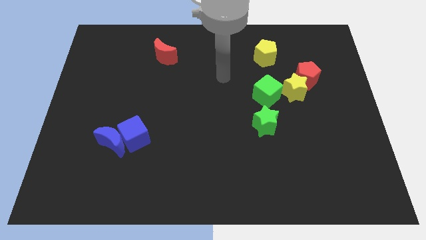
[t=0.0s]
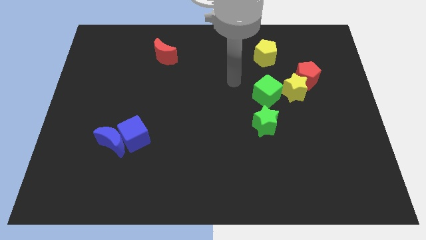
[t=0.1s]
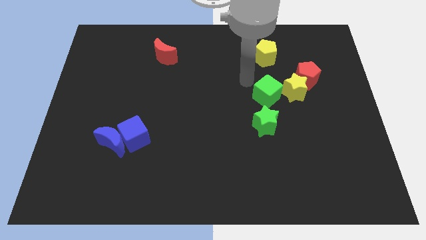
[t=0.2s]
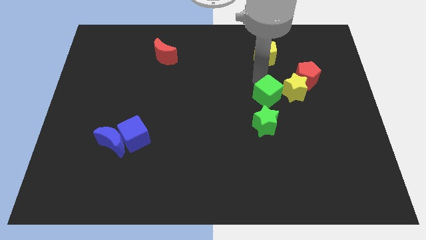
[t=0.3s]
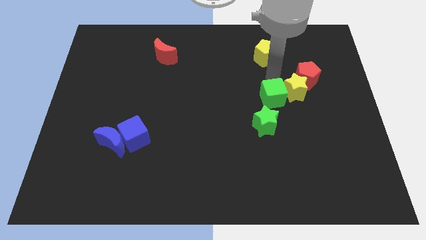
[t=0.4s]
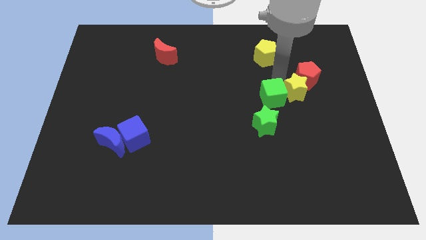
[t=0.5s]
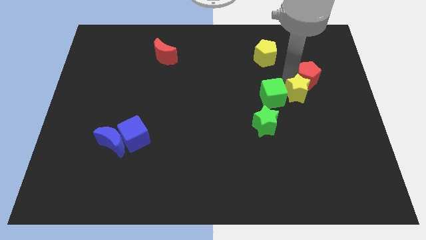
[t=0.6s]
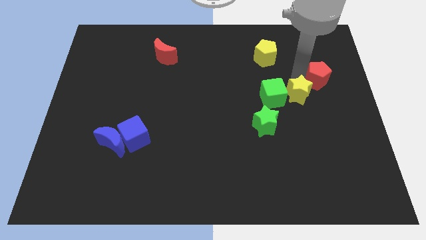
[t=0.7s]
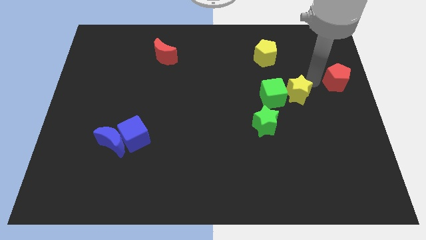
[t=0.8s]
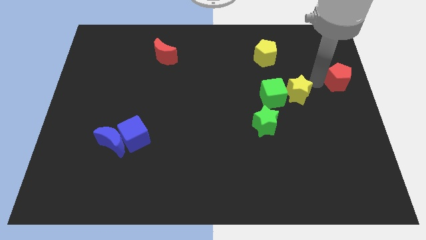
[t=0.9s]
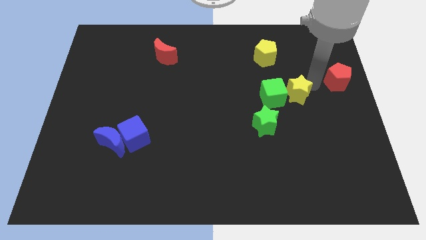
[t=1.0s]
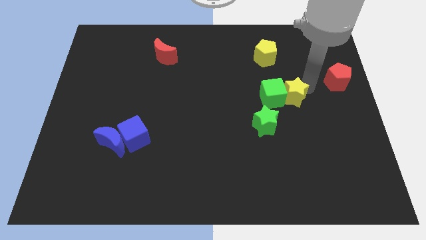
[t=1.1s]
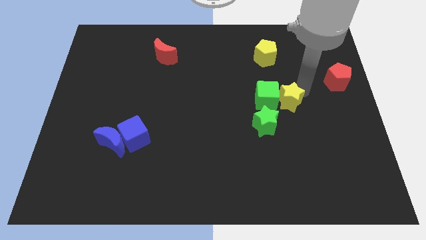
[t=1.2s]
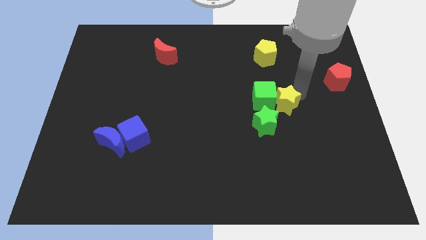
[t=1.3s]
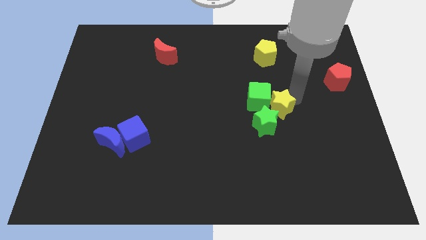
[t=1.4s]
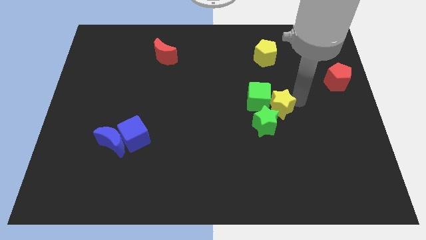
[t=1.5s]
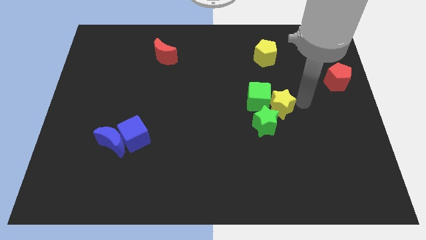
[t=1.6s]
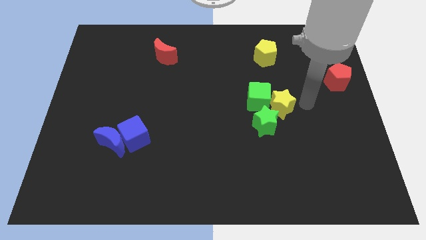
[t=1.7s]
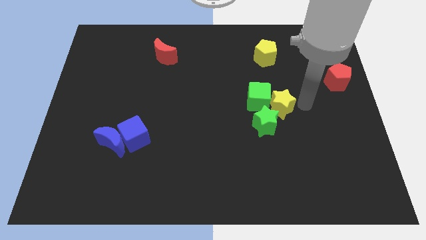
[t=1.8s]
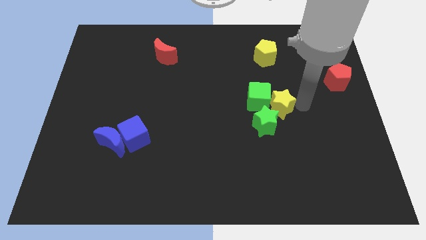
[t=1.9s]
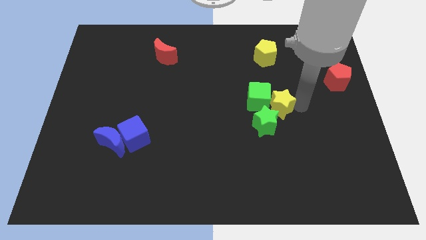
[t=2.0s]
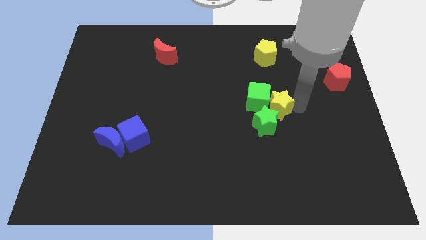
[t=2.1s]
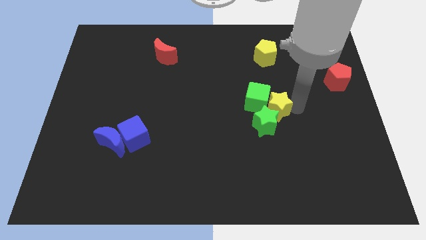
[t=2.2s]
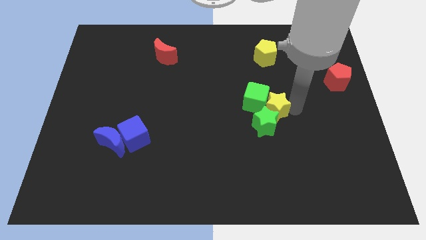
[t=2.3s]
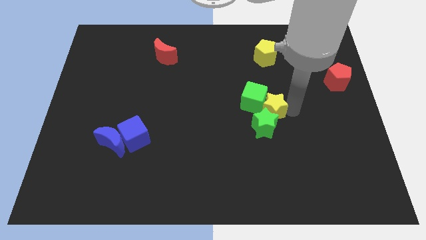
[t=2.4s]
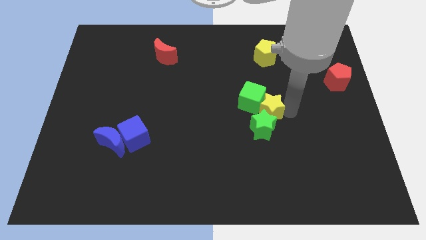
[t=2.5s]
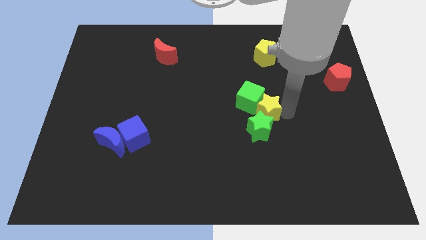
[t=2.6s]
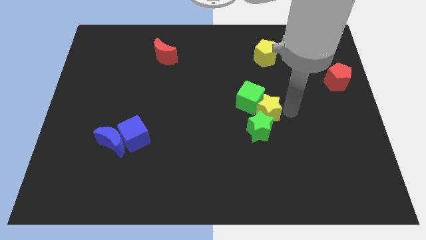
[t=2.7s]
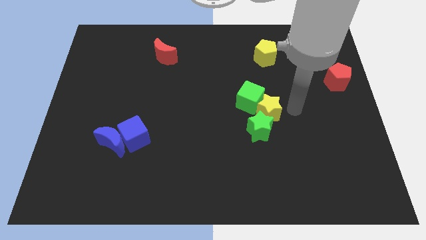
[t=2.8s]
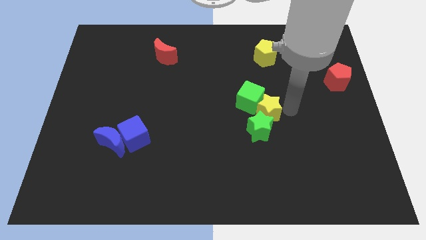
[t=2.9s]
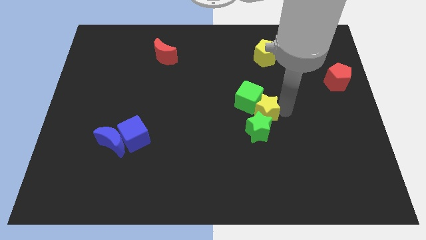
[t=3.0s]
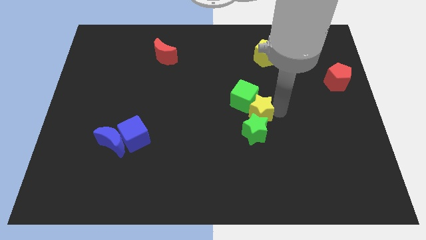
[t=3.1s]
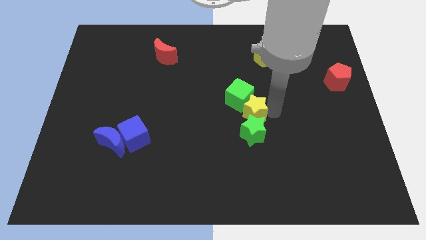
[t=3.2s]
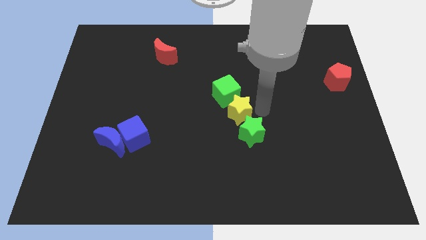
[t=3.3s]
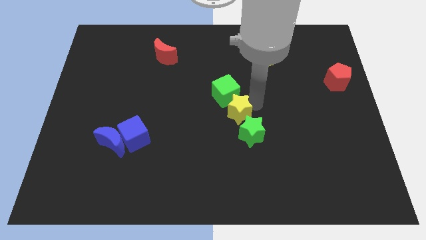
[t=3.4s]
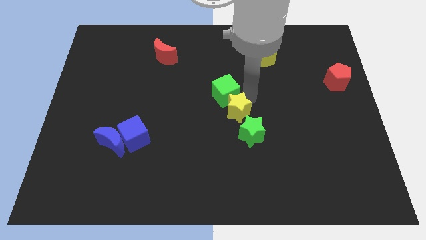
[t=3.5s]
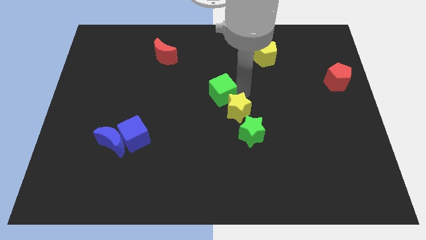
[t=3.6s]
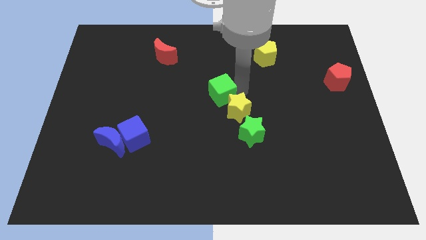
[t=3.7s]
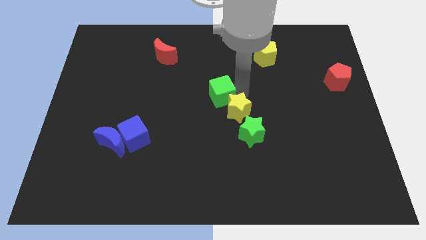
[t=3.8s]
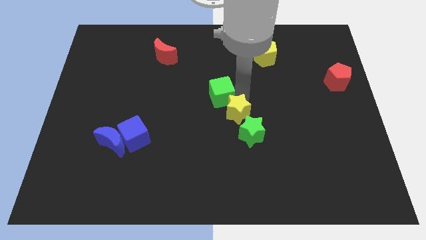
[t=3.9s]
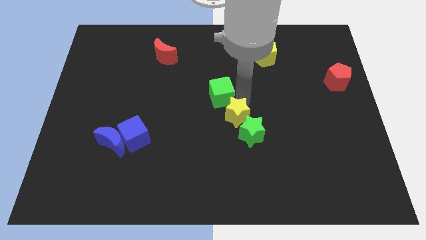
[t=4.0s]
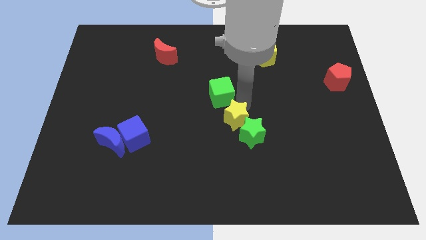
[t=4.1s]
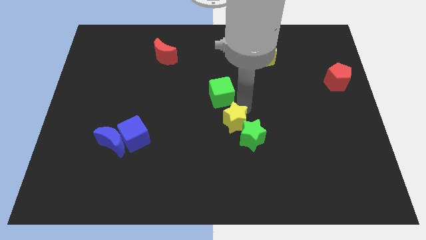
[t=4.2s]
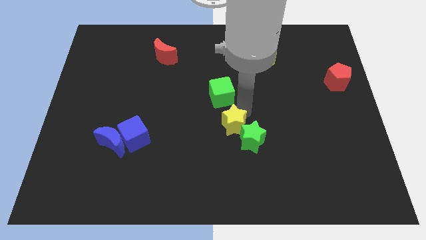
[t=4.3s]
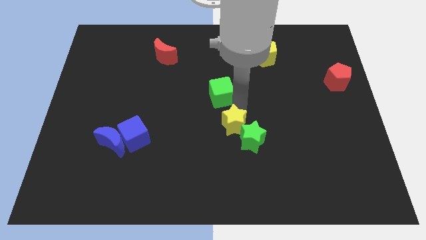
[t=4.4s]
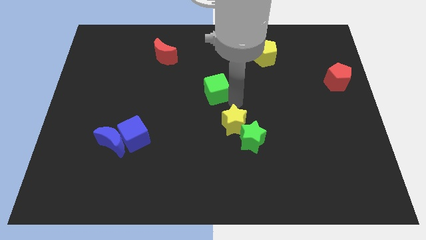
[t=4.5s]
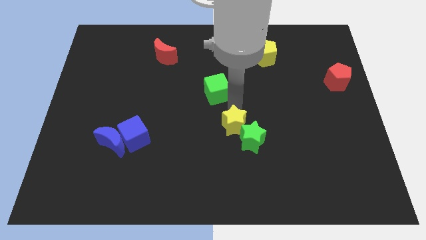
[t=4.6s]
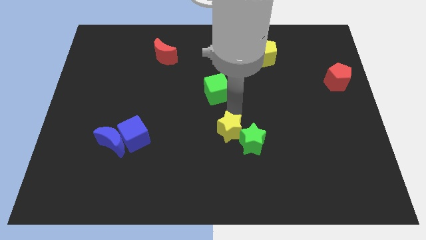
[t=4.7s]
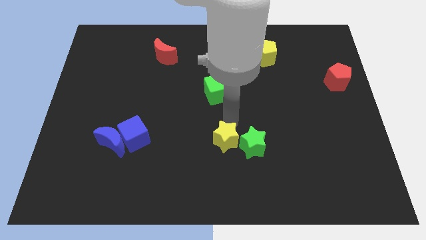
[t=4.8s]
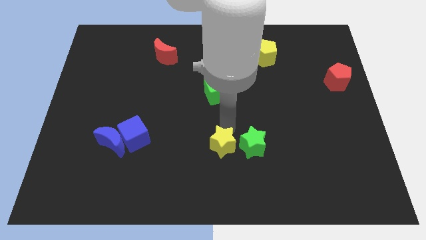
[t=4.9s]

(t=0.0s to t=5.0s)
put the yellow star to the bottom left side of the green star

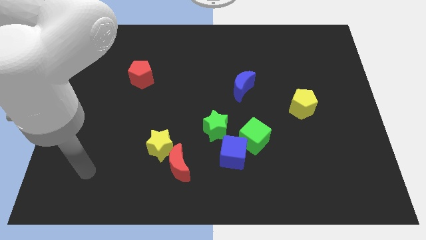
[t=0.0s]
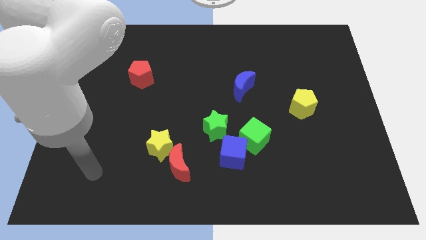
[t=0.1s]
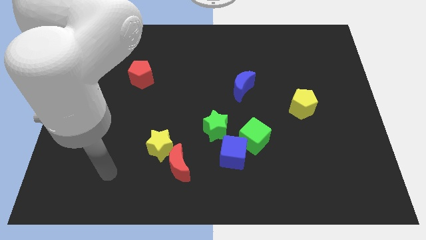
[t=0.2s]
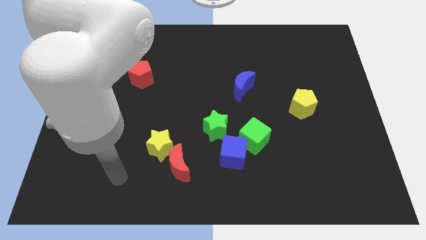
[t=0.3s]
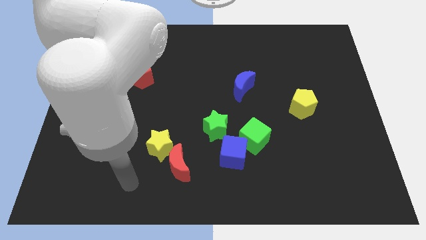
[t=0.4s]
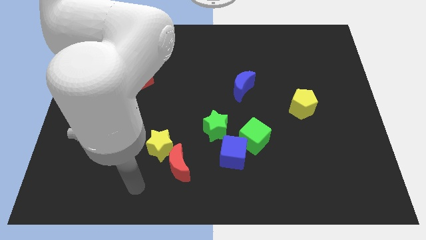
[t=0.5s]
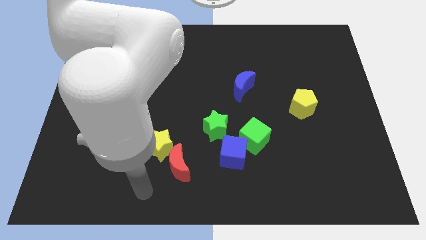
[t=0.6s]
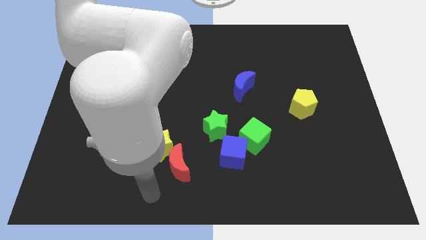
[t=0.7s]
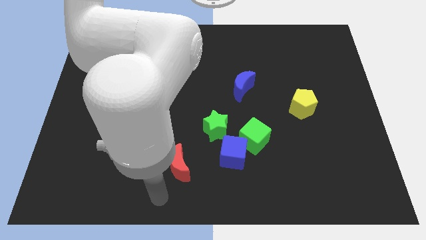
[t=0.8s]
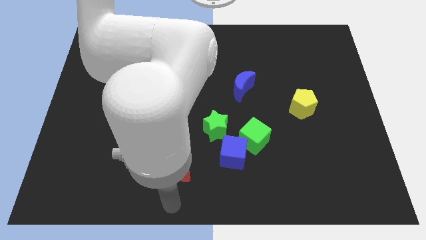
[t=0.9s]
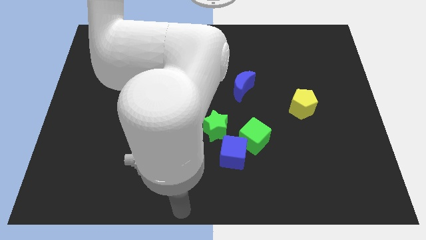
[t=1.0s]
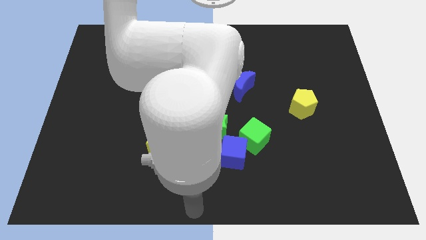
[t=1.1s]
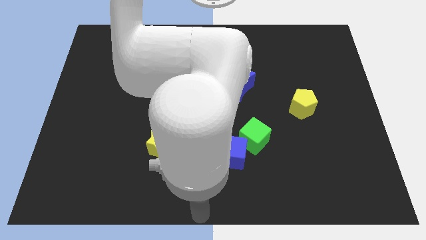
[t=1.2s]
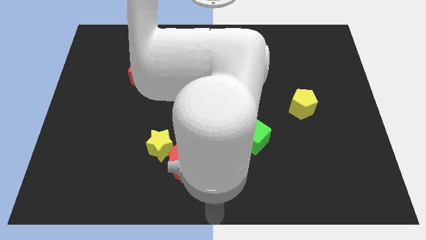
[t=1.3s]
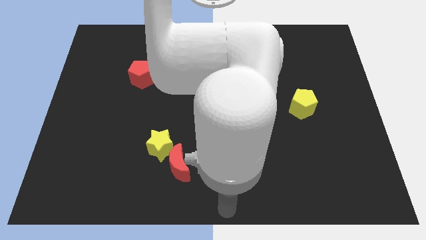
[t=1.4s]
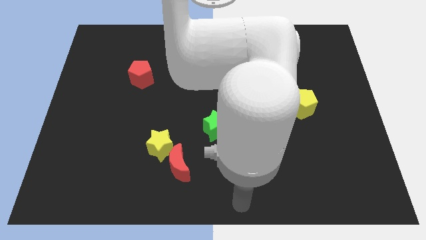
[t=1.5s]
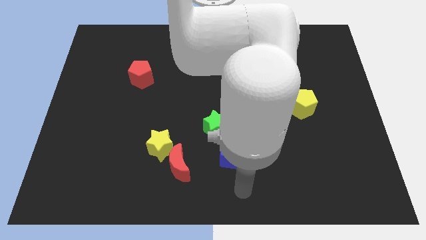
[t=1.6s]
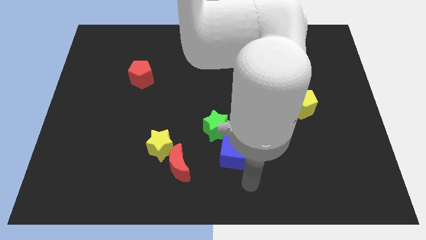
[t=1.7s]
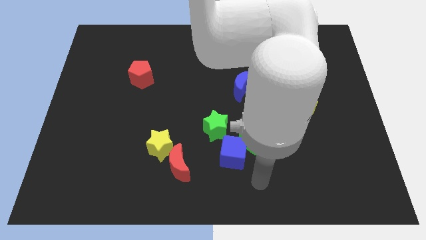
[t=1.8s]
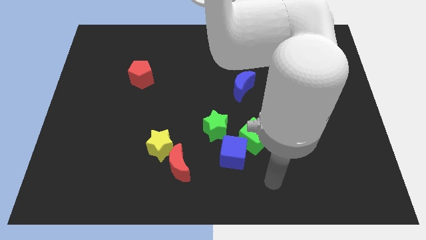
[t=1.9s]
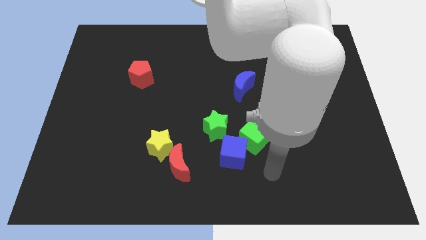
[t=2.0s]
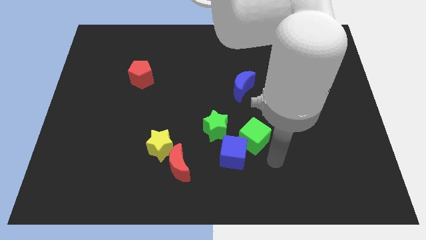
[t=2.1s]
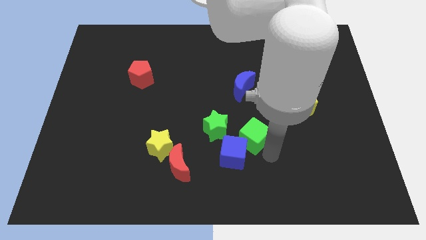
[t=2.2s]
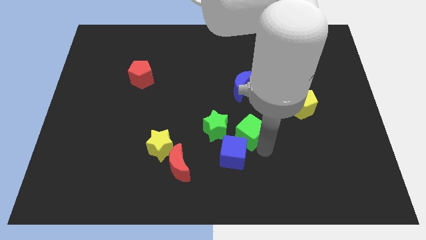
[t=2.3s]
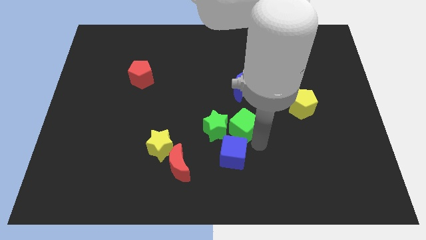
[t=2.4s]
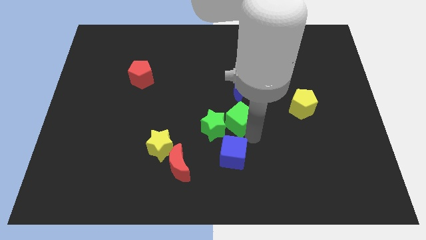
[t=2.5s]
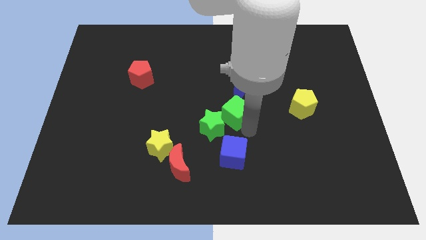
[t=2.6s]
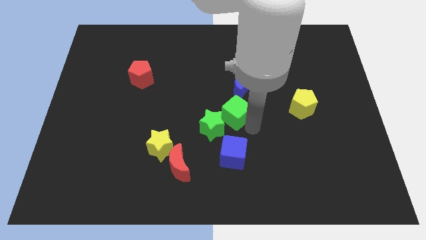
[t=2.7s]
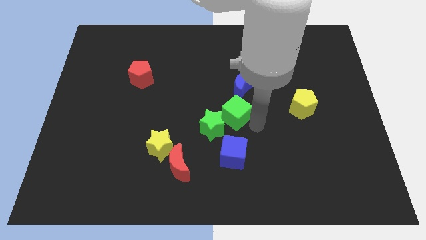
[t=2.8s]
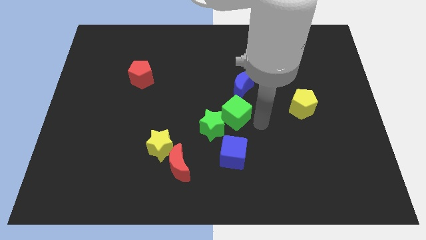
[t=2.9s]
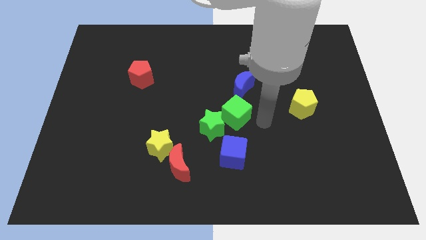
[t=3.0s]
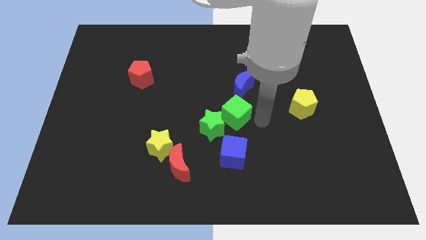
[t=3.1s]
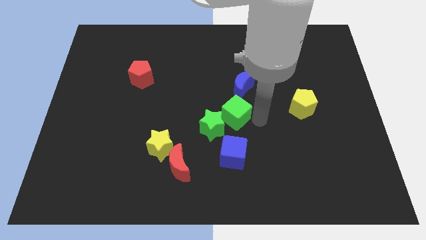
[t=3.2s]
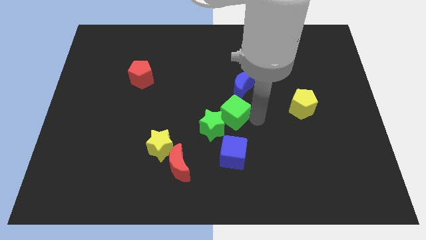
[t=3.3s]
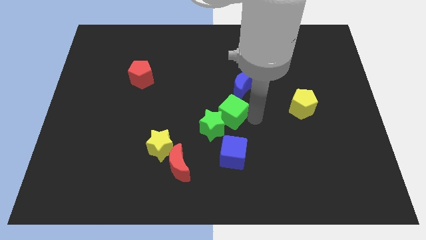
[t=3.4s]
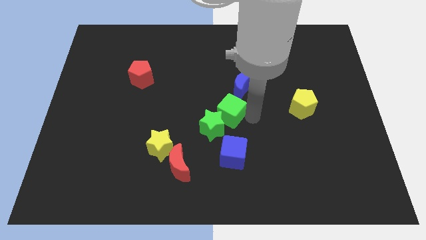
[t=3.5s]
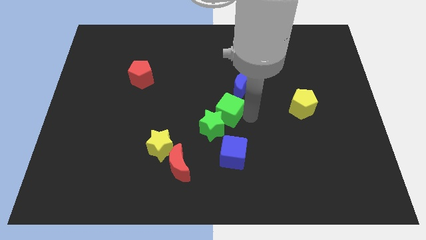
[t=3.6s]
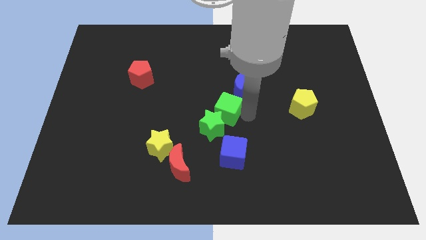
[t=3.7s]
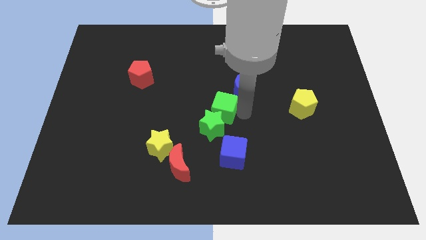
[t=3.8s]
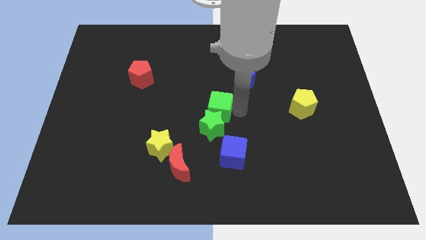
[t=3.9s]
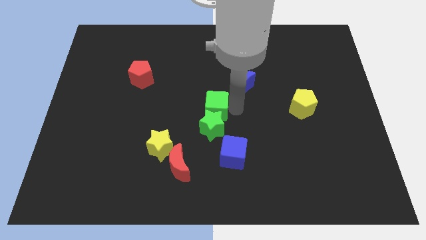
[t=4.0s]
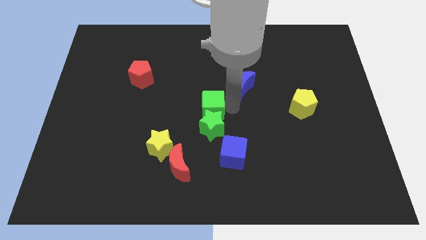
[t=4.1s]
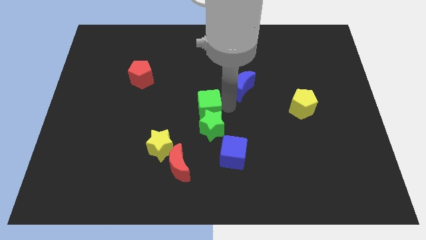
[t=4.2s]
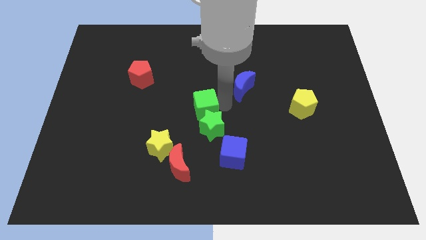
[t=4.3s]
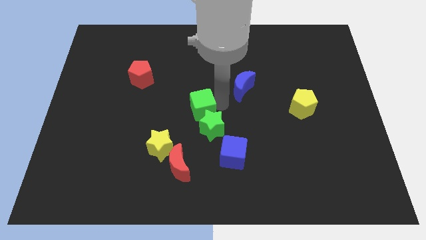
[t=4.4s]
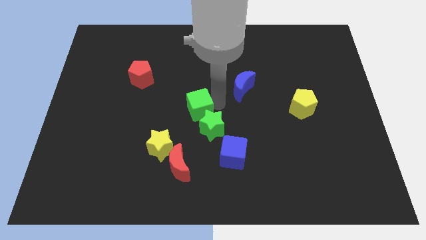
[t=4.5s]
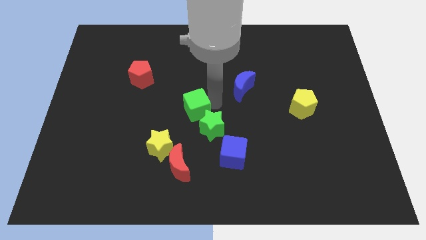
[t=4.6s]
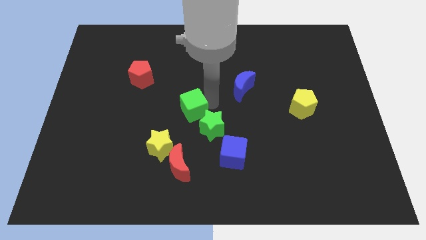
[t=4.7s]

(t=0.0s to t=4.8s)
slide the green cube to the top of the red moon
